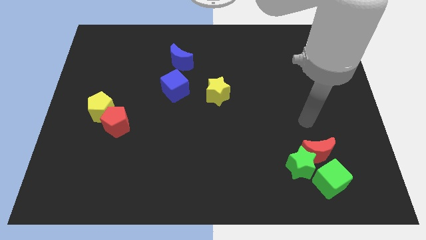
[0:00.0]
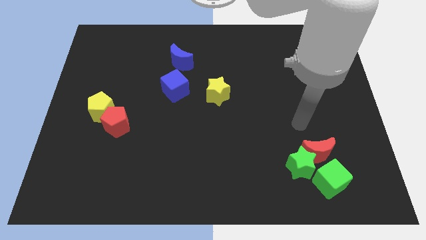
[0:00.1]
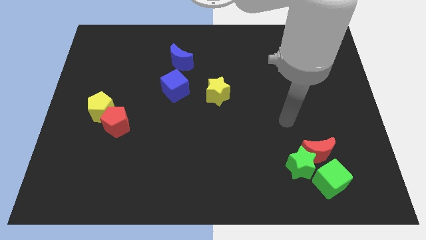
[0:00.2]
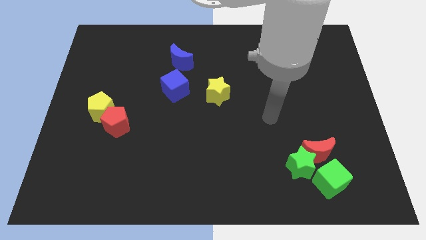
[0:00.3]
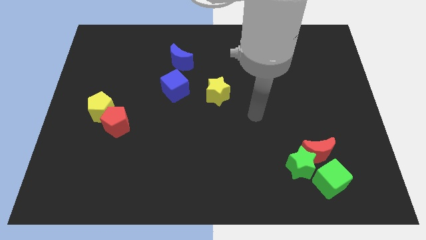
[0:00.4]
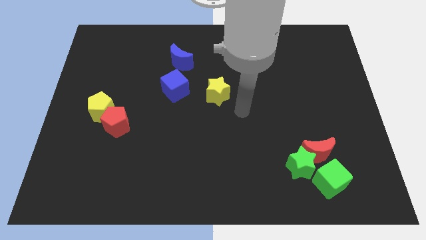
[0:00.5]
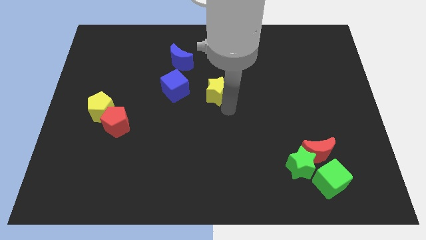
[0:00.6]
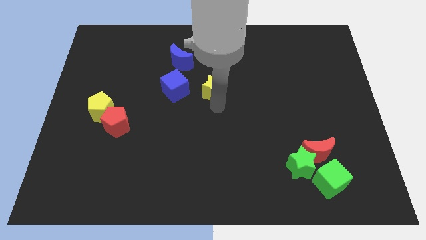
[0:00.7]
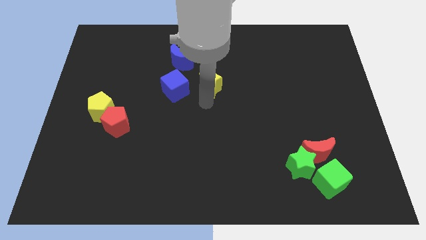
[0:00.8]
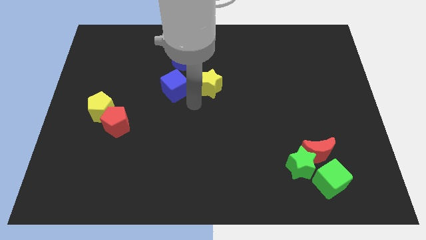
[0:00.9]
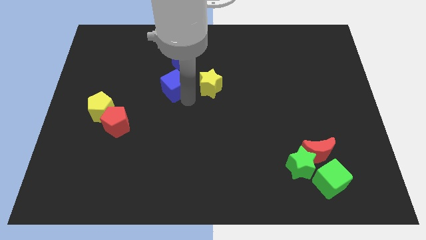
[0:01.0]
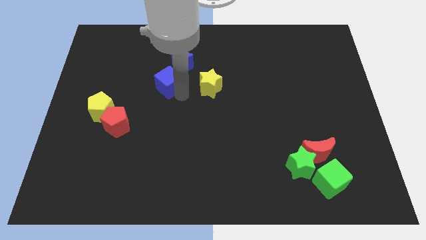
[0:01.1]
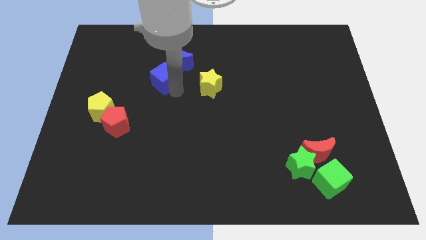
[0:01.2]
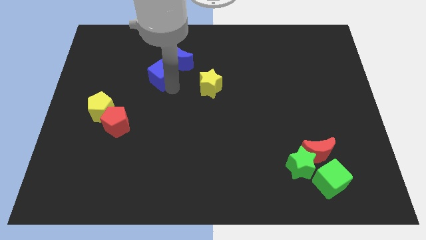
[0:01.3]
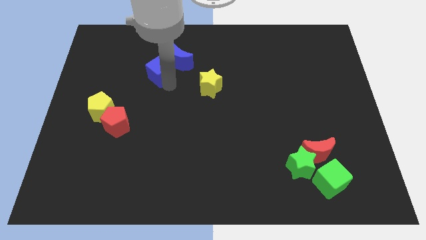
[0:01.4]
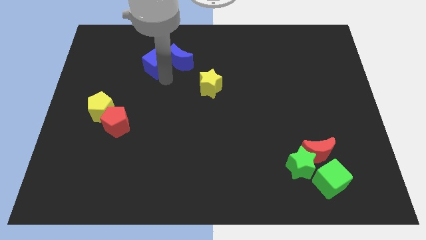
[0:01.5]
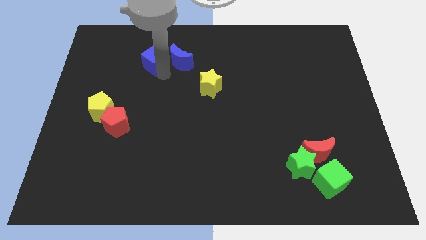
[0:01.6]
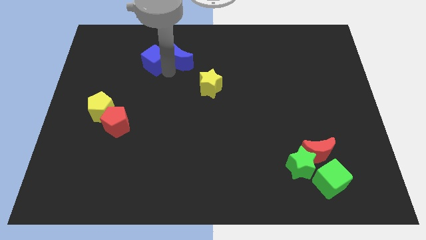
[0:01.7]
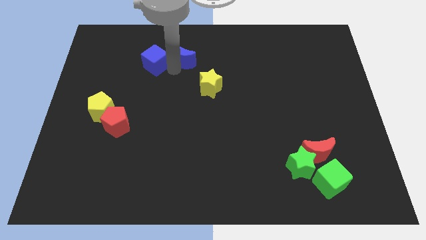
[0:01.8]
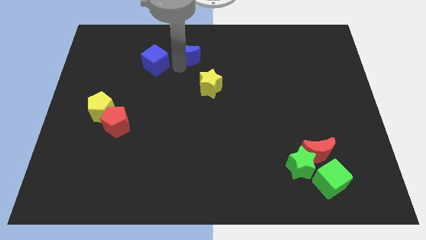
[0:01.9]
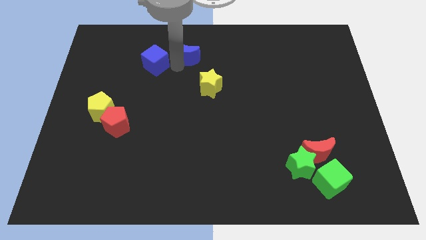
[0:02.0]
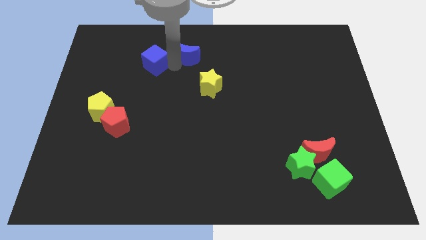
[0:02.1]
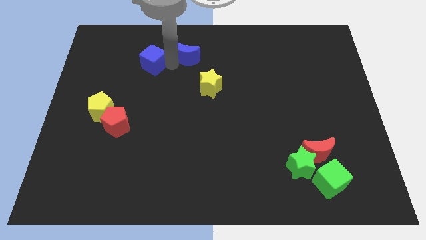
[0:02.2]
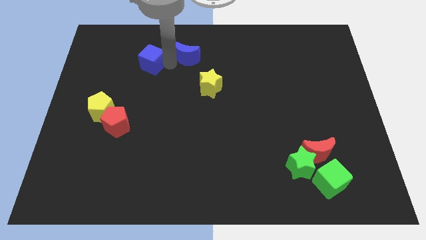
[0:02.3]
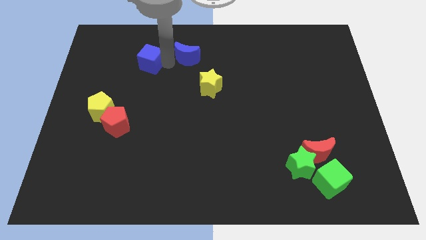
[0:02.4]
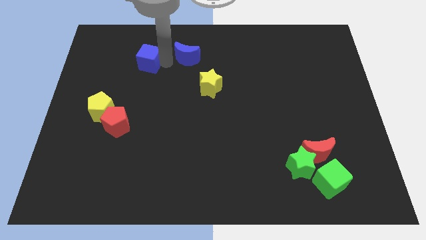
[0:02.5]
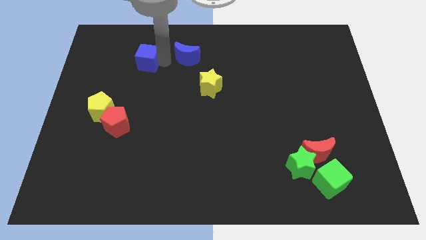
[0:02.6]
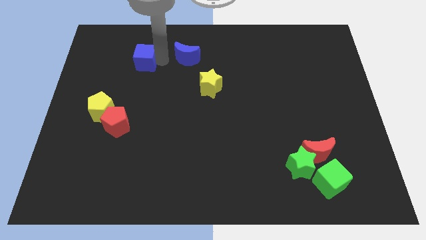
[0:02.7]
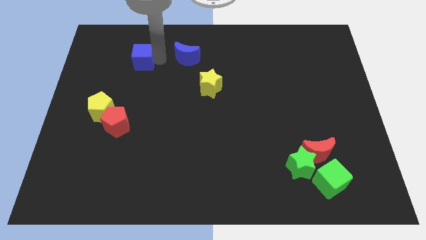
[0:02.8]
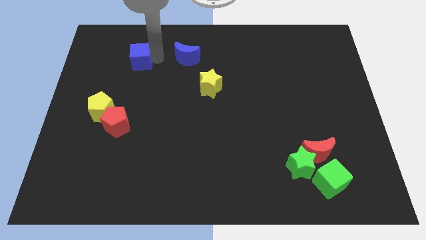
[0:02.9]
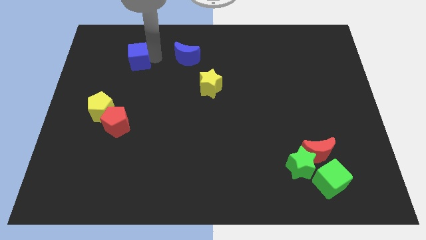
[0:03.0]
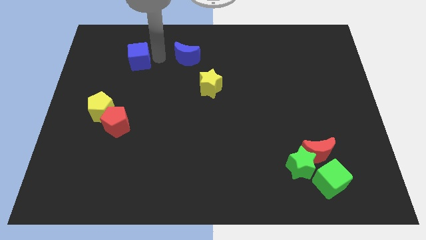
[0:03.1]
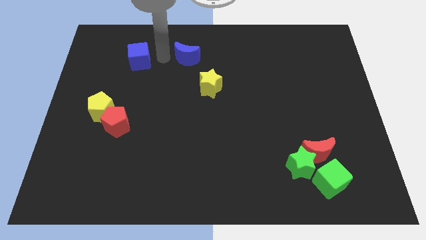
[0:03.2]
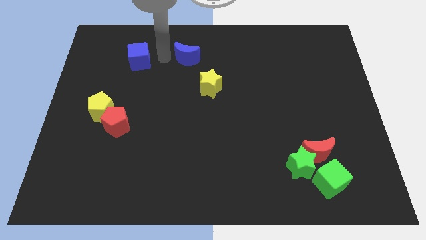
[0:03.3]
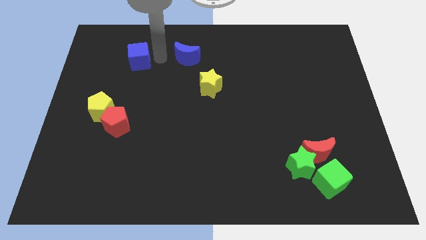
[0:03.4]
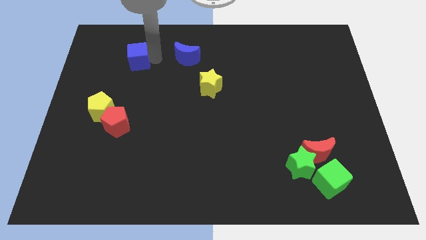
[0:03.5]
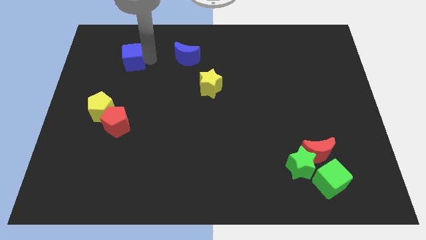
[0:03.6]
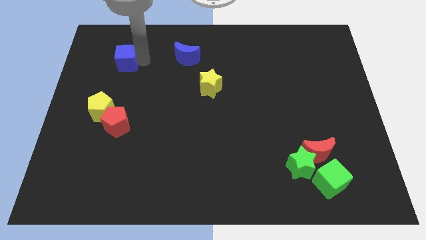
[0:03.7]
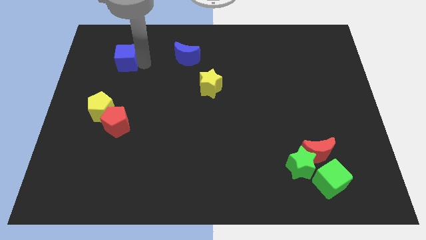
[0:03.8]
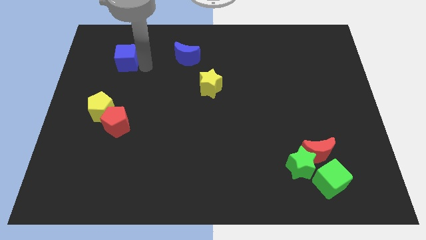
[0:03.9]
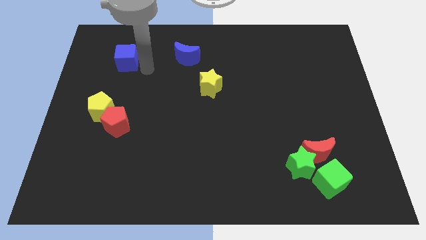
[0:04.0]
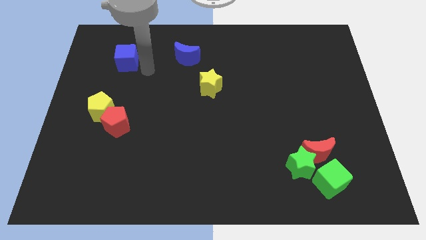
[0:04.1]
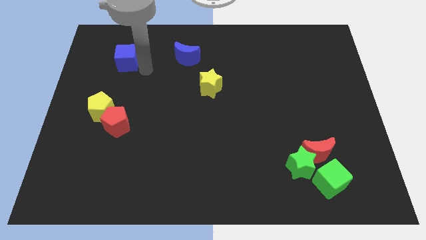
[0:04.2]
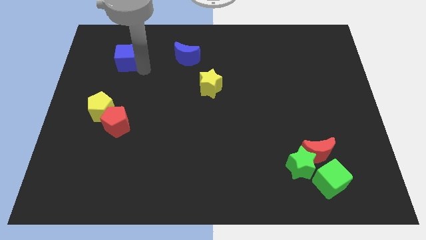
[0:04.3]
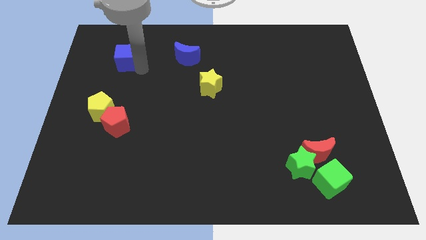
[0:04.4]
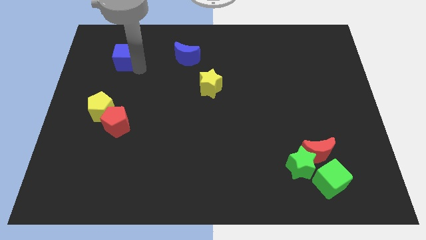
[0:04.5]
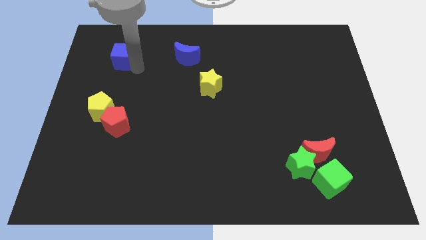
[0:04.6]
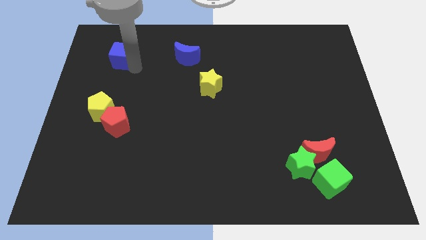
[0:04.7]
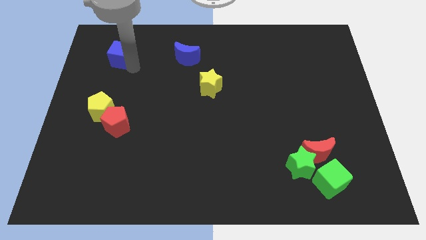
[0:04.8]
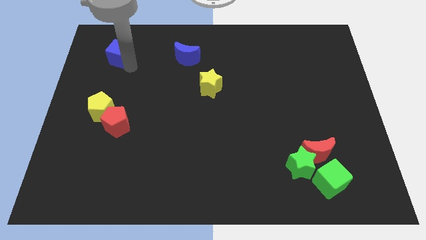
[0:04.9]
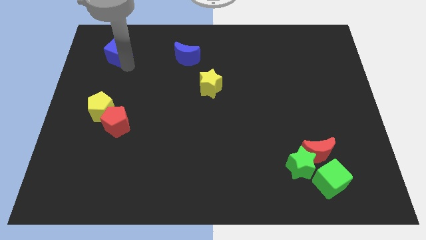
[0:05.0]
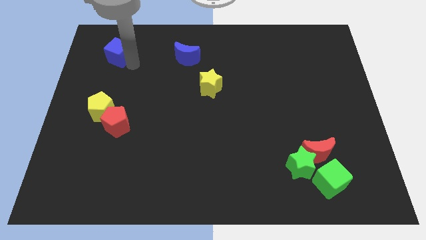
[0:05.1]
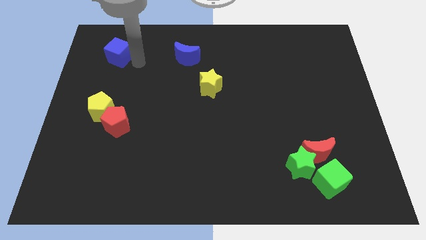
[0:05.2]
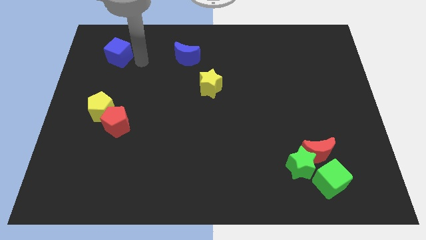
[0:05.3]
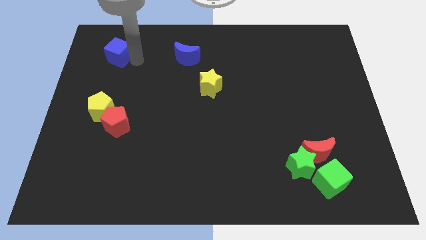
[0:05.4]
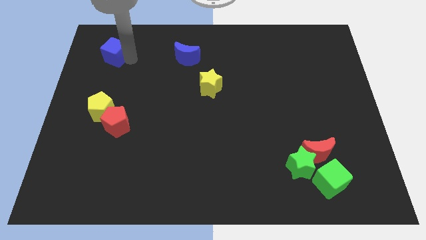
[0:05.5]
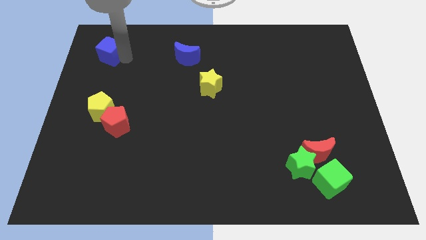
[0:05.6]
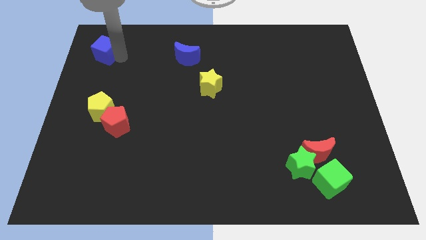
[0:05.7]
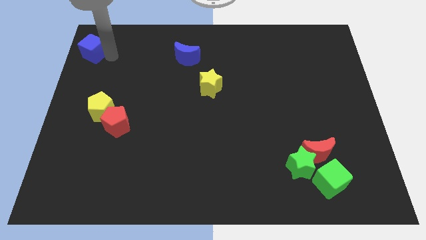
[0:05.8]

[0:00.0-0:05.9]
move the blue cube to the top left of the board

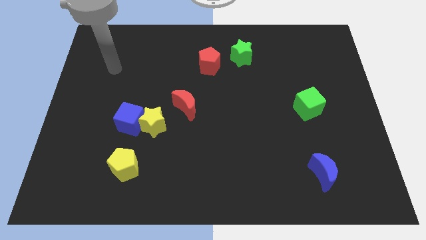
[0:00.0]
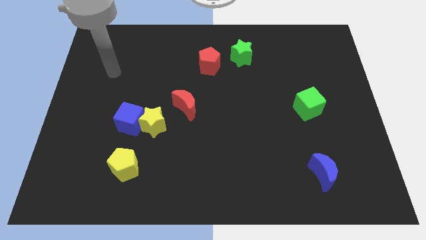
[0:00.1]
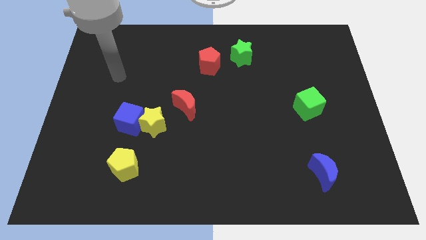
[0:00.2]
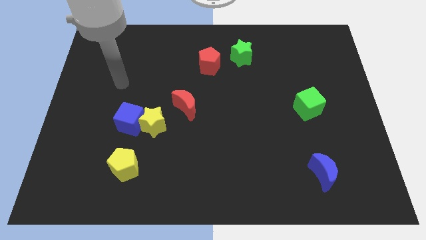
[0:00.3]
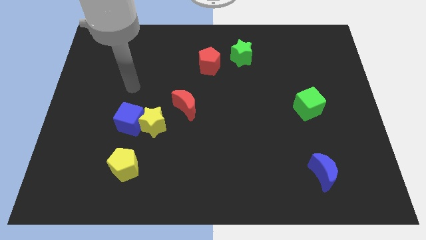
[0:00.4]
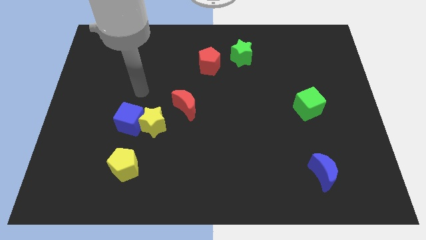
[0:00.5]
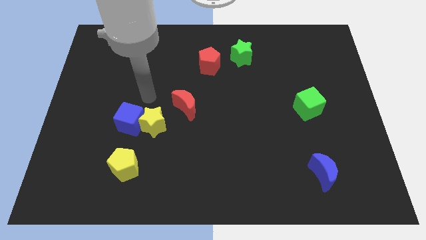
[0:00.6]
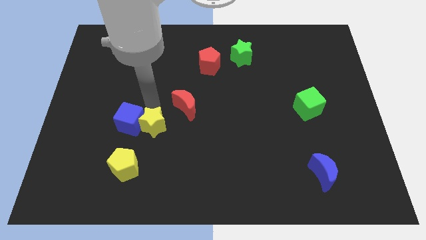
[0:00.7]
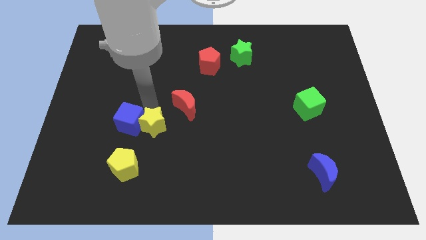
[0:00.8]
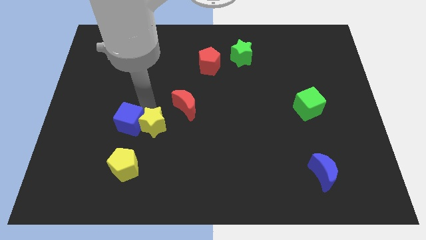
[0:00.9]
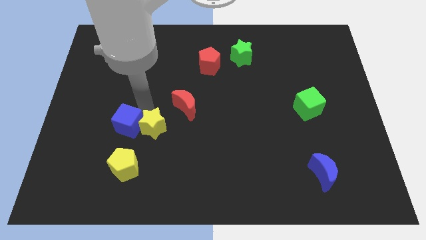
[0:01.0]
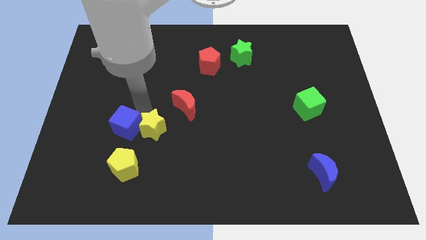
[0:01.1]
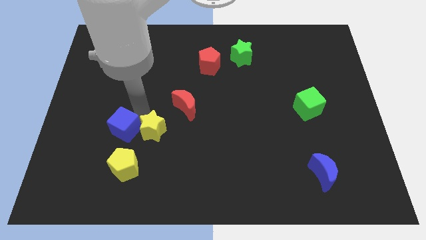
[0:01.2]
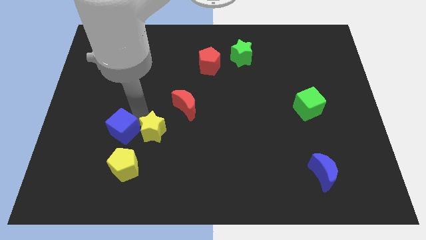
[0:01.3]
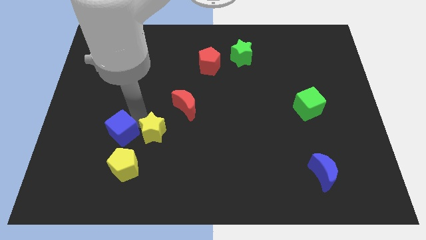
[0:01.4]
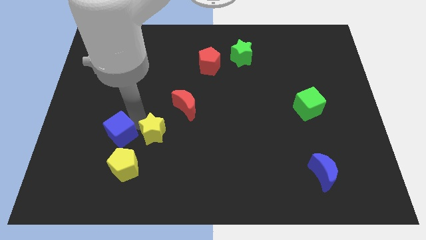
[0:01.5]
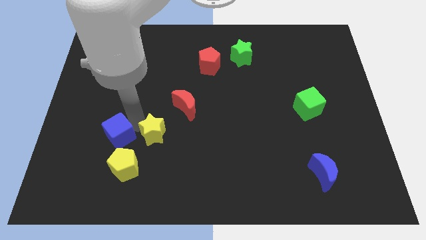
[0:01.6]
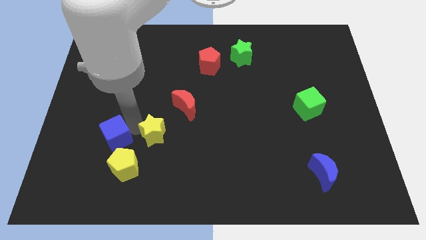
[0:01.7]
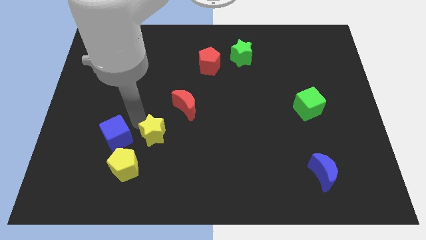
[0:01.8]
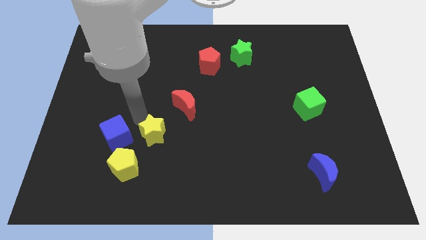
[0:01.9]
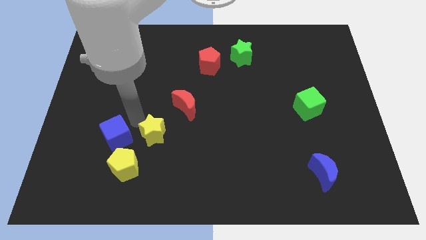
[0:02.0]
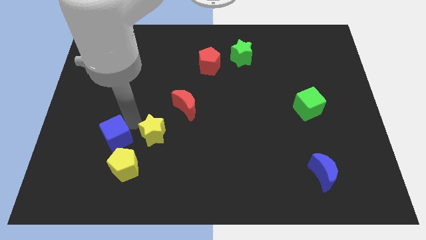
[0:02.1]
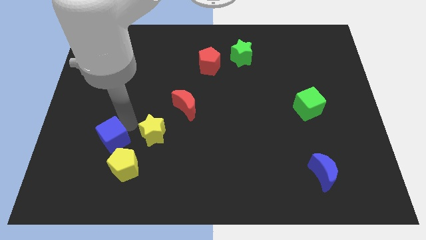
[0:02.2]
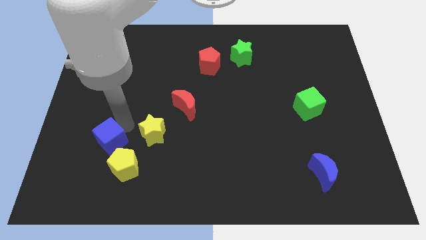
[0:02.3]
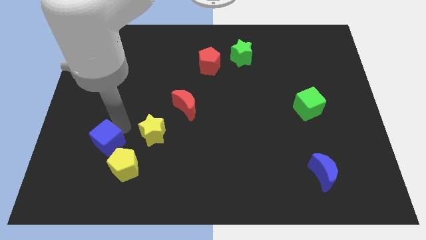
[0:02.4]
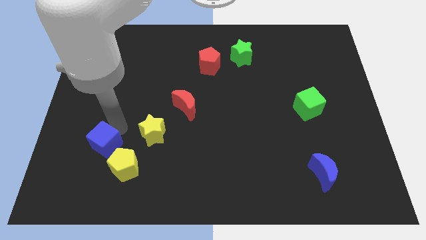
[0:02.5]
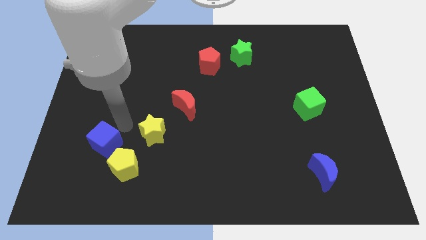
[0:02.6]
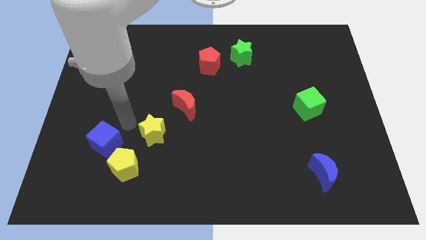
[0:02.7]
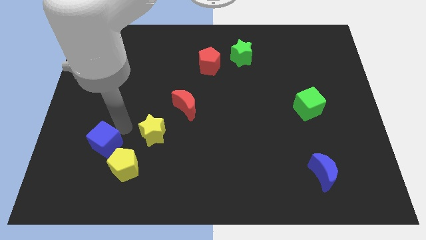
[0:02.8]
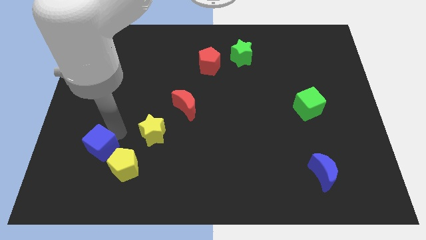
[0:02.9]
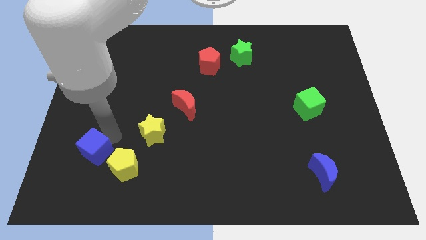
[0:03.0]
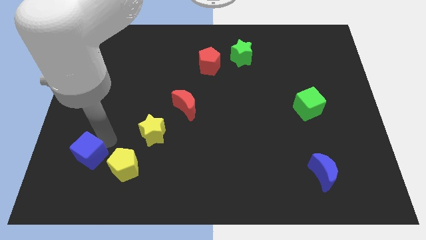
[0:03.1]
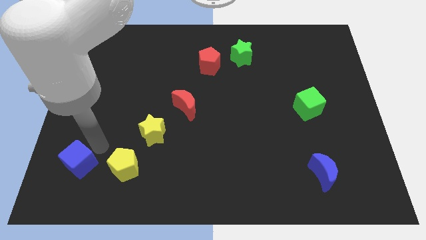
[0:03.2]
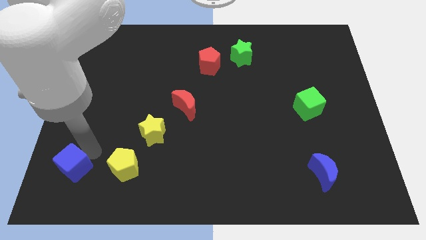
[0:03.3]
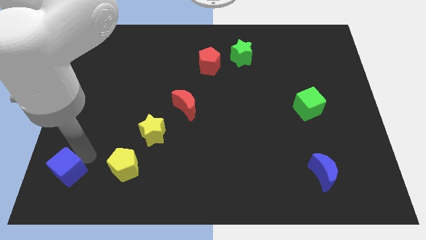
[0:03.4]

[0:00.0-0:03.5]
slide the blue cube to the bottom left corner
